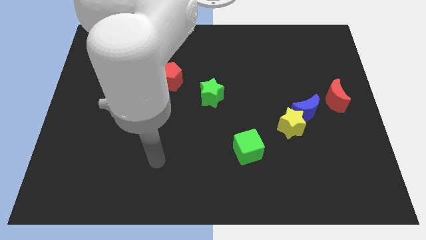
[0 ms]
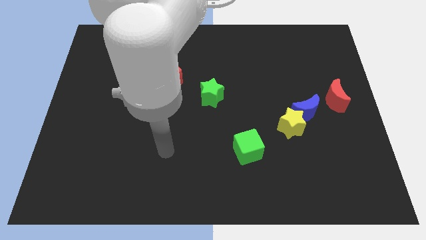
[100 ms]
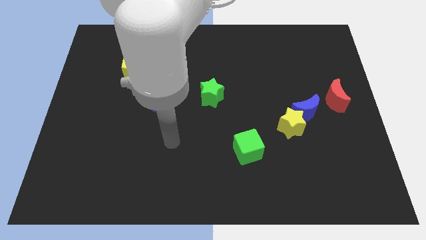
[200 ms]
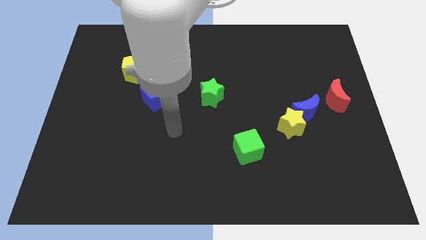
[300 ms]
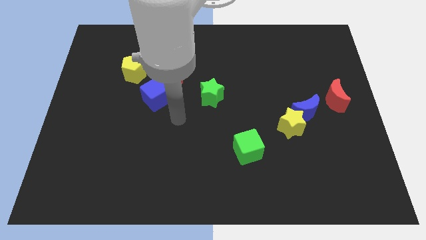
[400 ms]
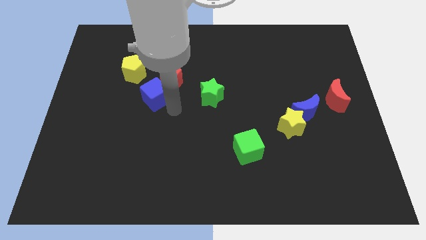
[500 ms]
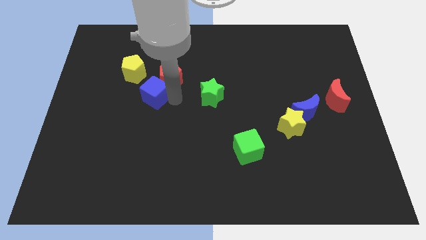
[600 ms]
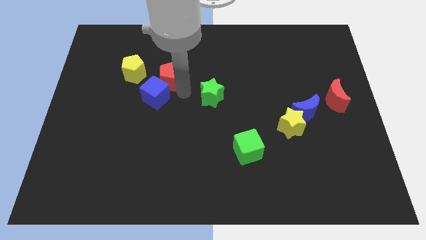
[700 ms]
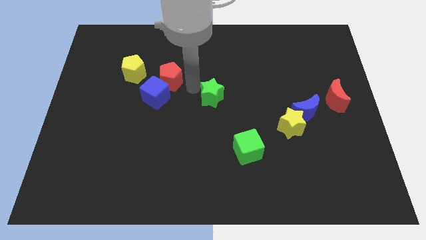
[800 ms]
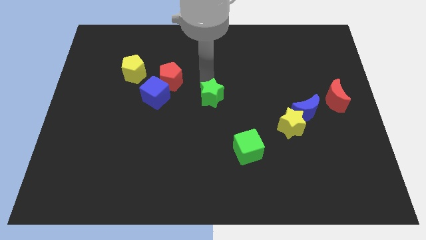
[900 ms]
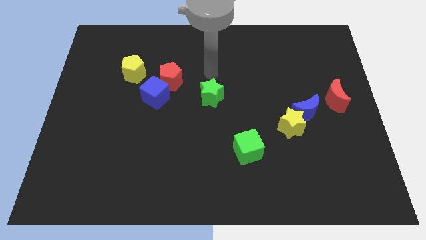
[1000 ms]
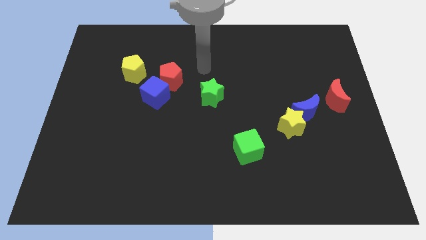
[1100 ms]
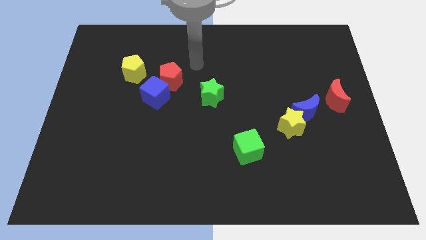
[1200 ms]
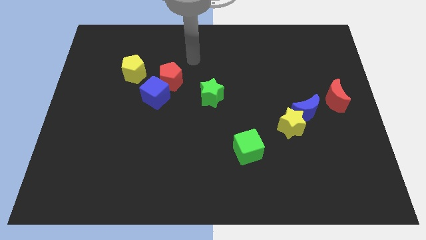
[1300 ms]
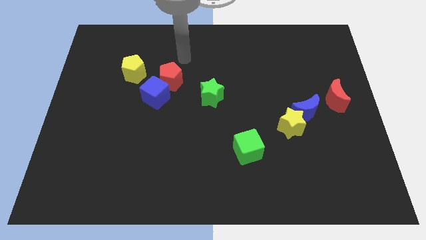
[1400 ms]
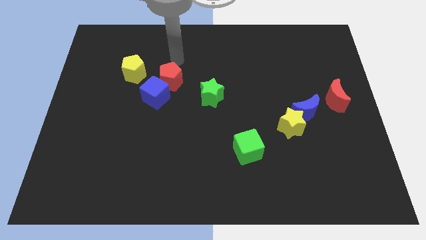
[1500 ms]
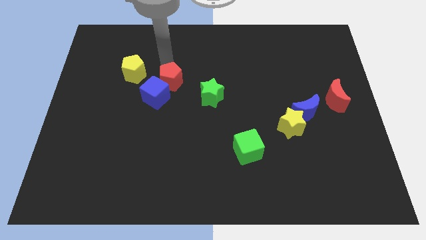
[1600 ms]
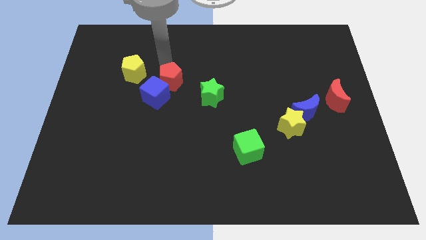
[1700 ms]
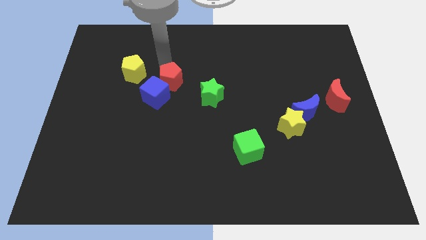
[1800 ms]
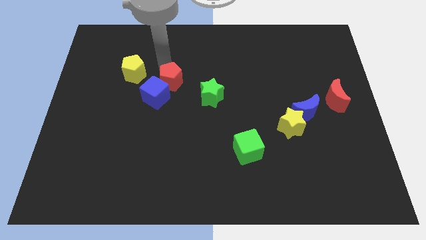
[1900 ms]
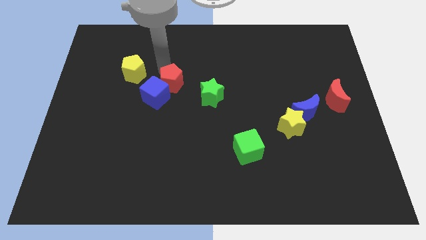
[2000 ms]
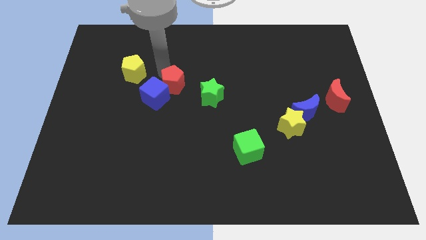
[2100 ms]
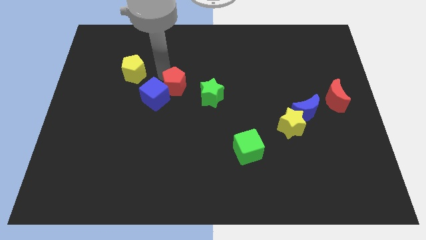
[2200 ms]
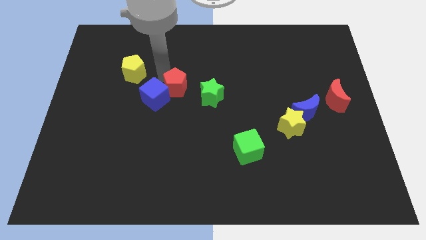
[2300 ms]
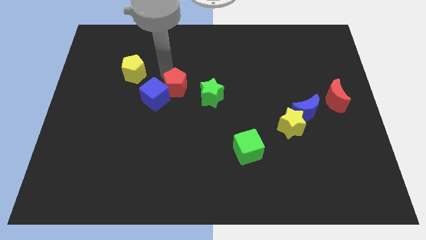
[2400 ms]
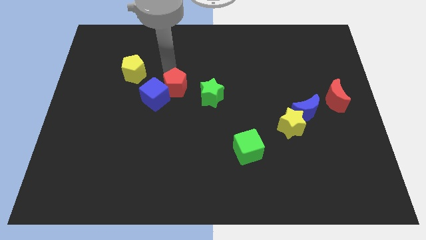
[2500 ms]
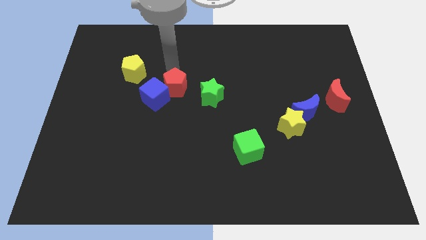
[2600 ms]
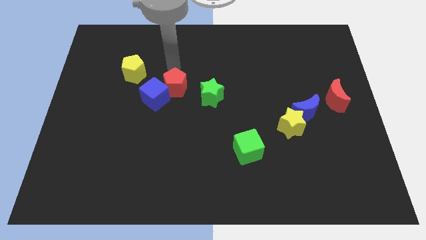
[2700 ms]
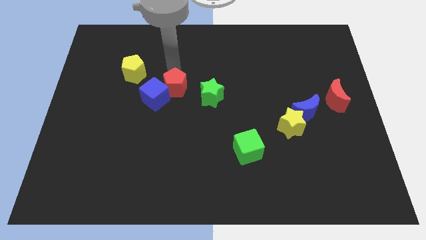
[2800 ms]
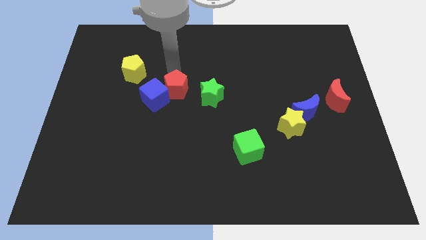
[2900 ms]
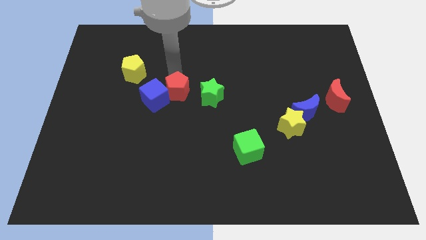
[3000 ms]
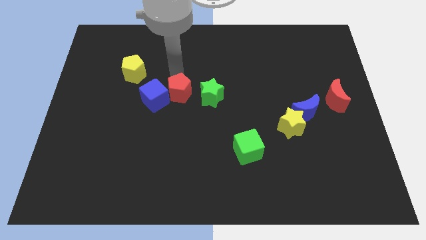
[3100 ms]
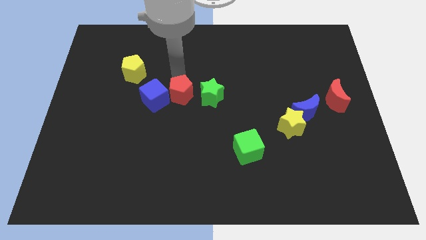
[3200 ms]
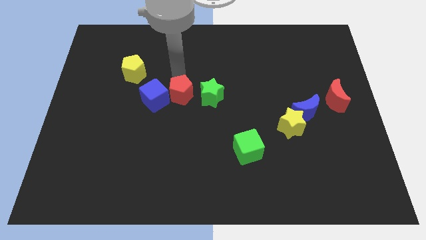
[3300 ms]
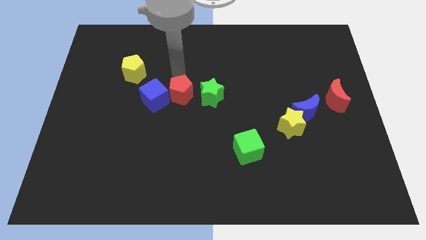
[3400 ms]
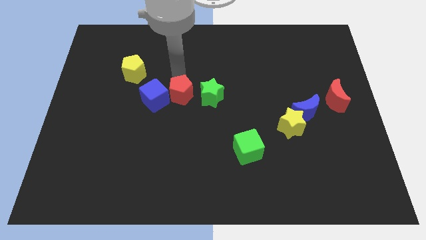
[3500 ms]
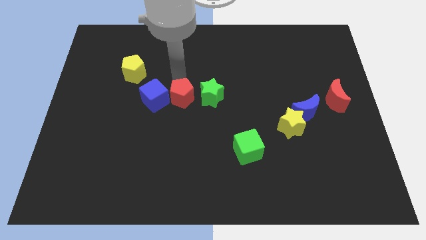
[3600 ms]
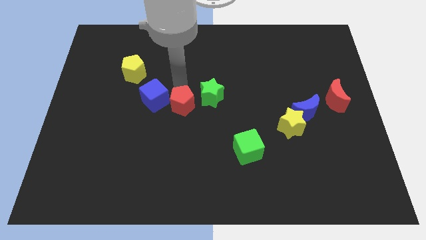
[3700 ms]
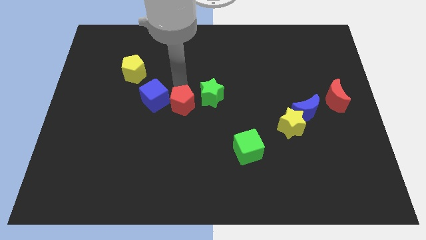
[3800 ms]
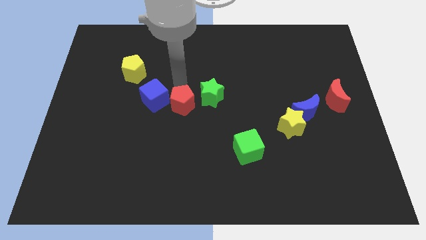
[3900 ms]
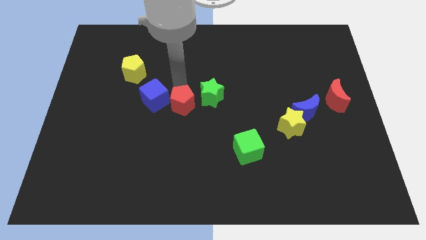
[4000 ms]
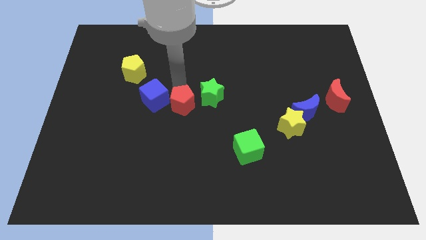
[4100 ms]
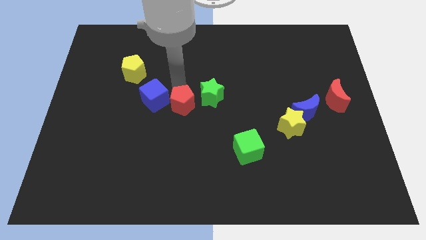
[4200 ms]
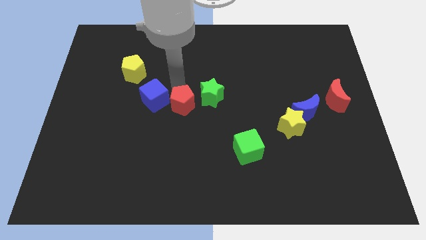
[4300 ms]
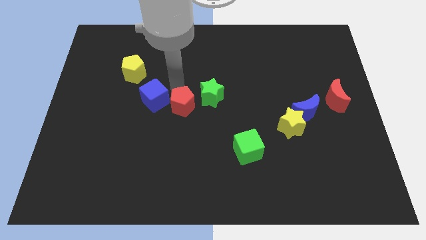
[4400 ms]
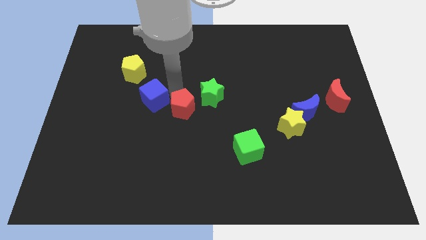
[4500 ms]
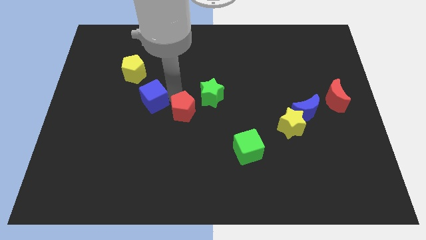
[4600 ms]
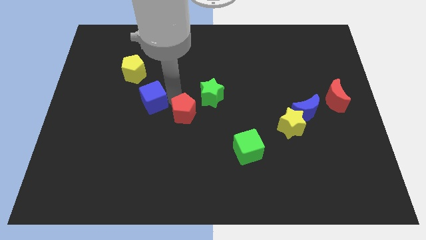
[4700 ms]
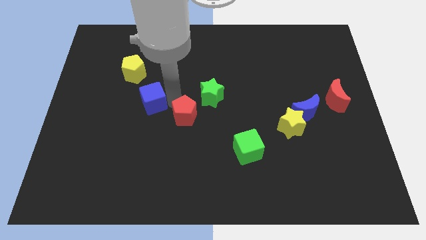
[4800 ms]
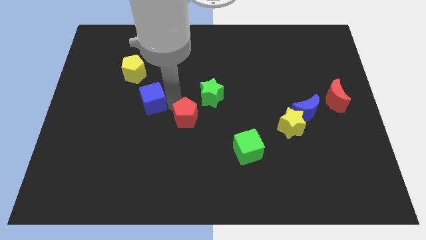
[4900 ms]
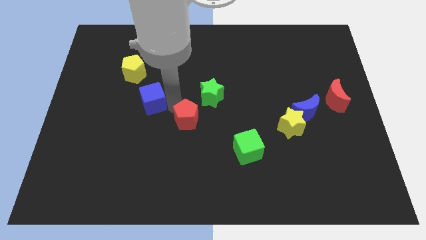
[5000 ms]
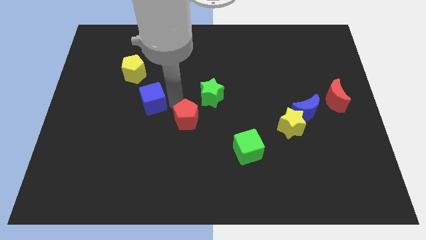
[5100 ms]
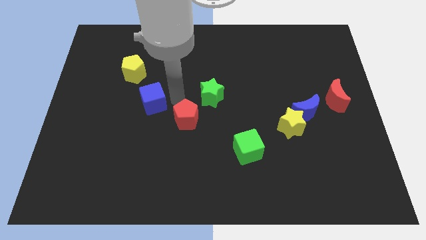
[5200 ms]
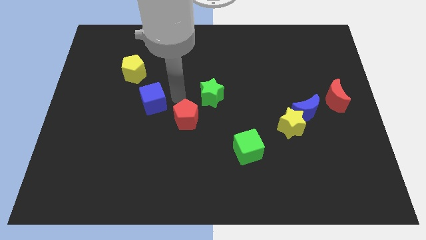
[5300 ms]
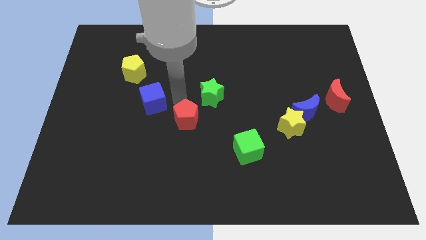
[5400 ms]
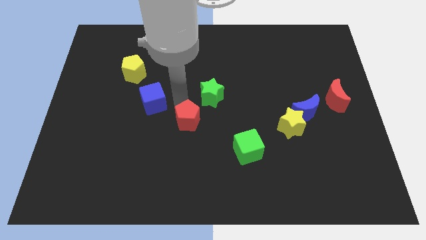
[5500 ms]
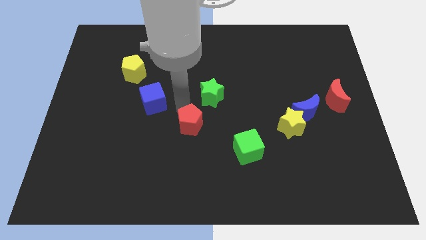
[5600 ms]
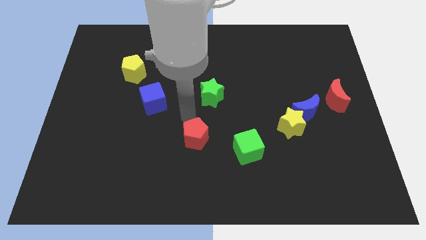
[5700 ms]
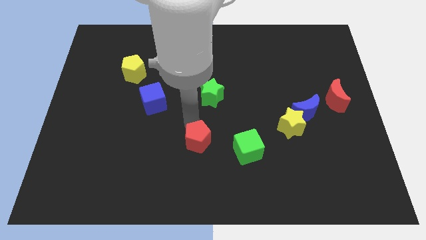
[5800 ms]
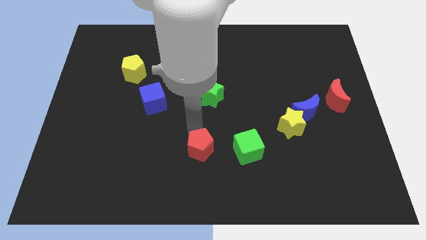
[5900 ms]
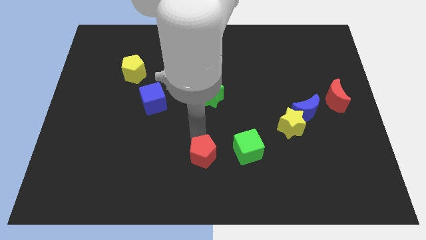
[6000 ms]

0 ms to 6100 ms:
put the red pentagon to the bottom

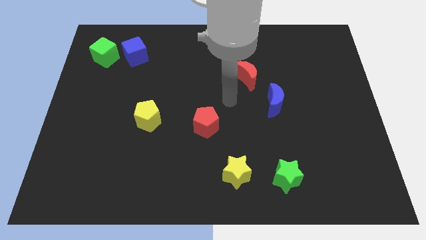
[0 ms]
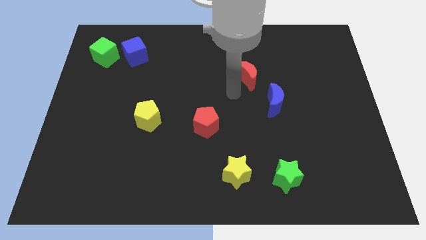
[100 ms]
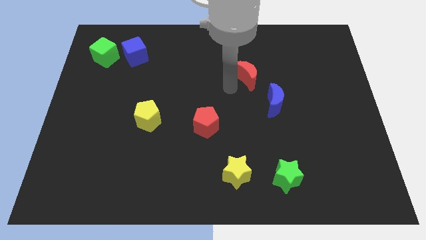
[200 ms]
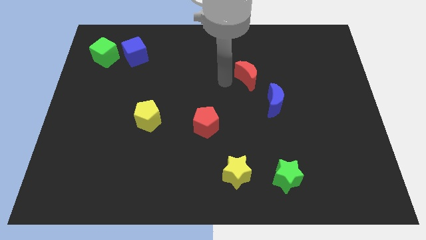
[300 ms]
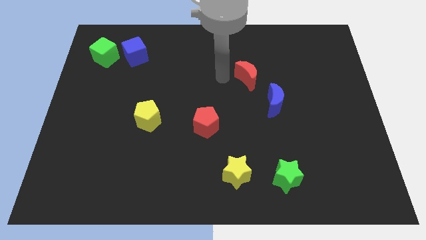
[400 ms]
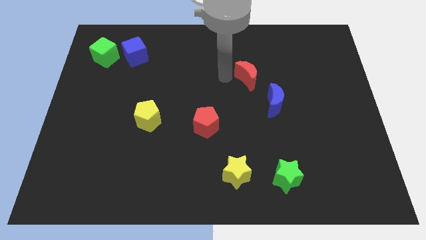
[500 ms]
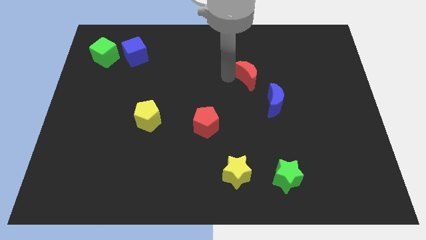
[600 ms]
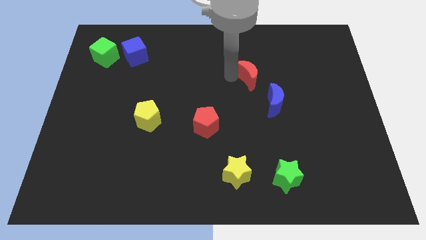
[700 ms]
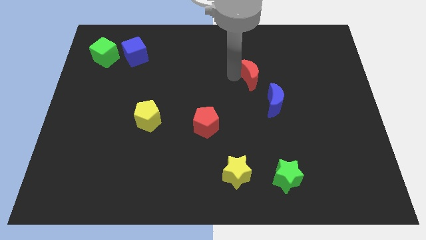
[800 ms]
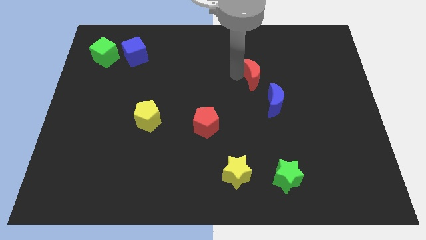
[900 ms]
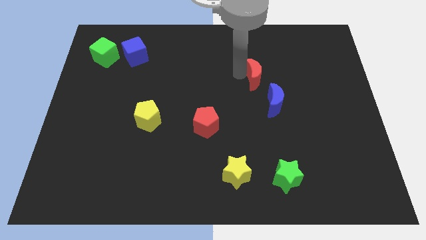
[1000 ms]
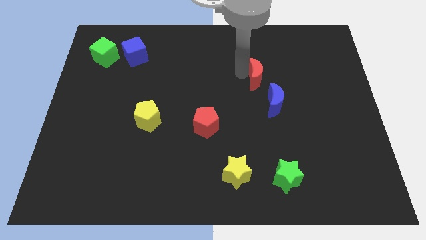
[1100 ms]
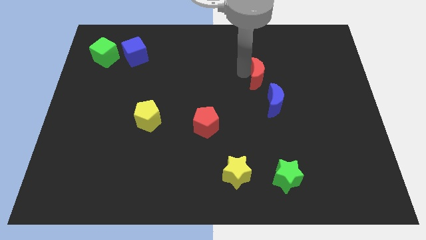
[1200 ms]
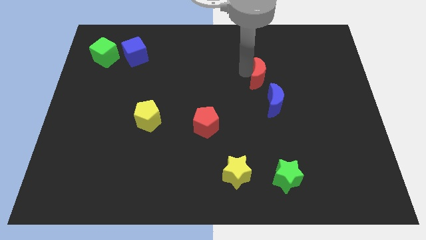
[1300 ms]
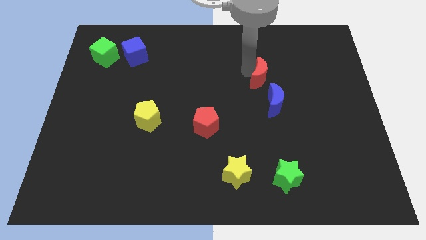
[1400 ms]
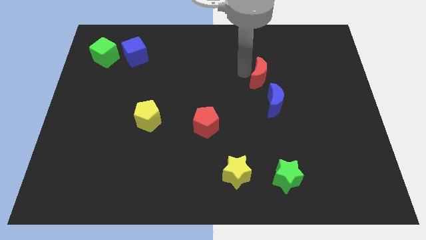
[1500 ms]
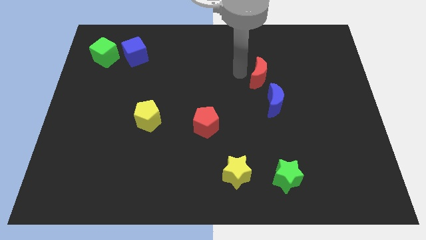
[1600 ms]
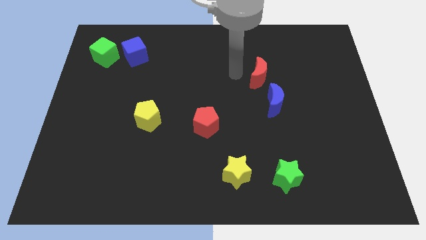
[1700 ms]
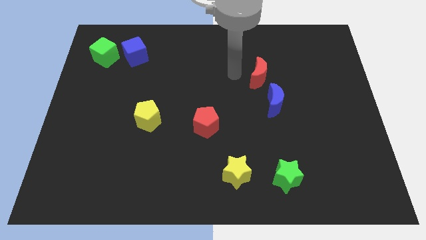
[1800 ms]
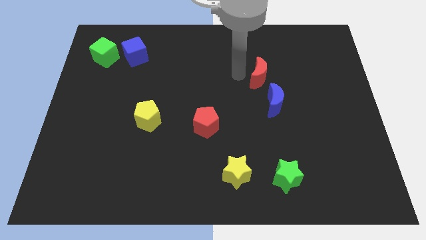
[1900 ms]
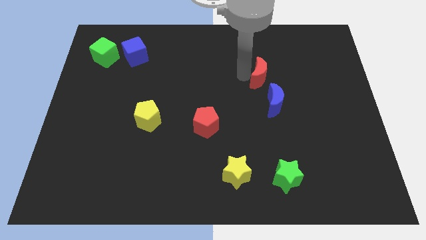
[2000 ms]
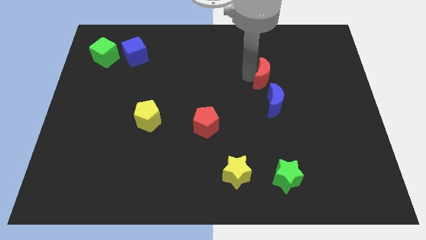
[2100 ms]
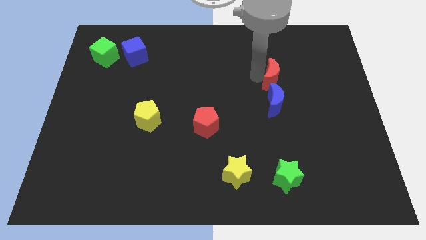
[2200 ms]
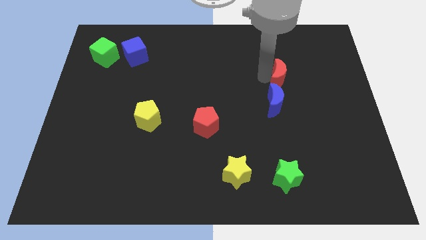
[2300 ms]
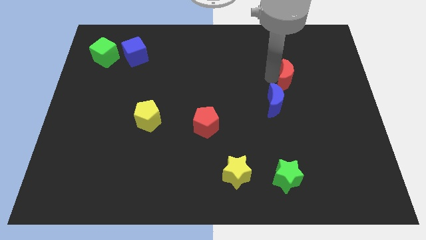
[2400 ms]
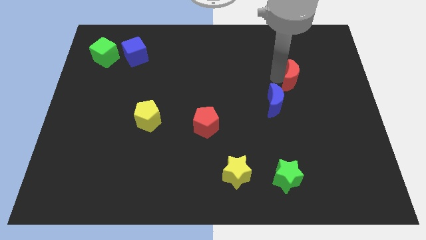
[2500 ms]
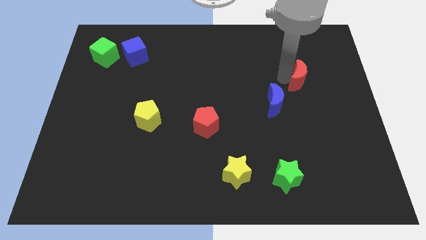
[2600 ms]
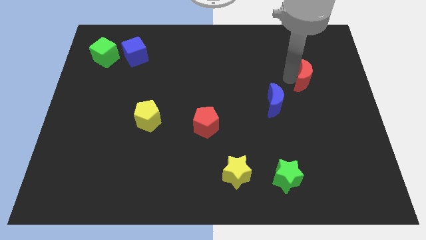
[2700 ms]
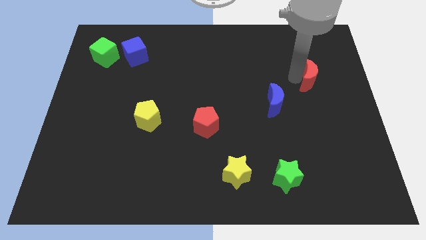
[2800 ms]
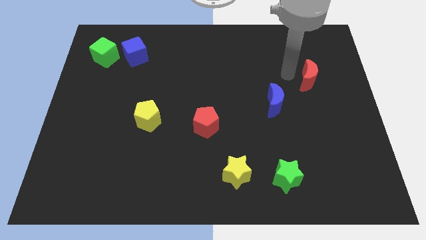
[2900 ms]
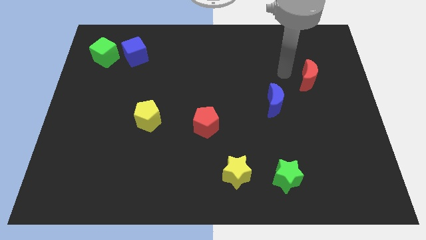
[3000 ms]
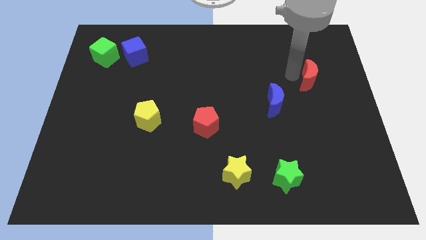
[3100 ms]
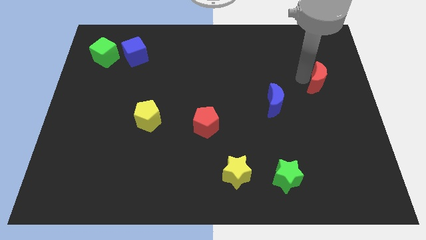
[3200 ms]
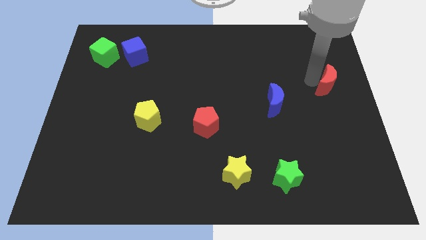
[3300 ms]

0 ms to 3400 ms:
put the red moon to the right side
